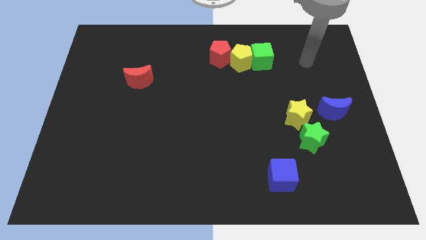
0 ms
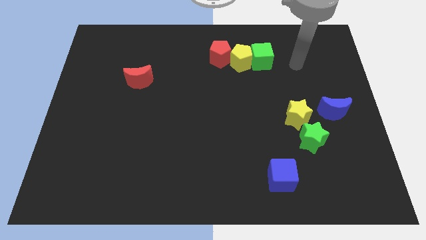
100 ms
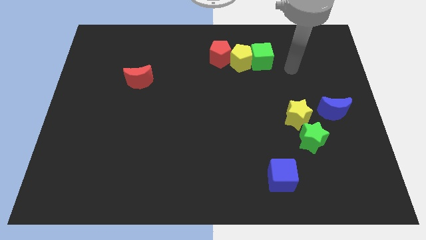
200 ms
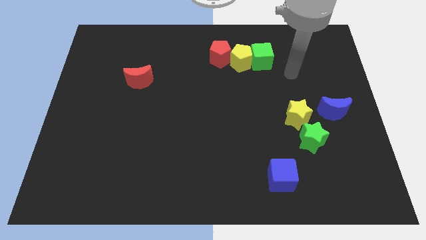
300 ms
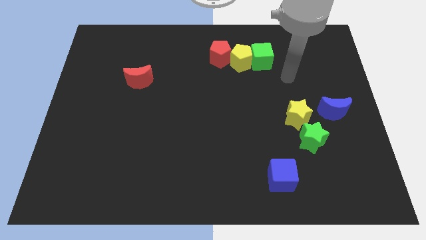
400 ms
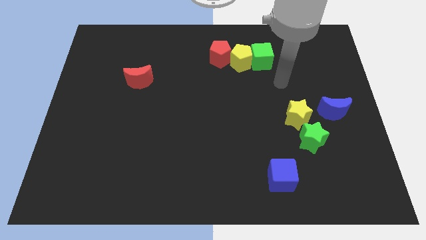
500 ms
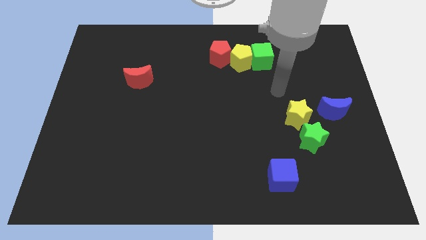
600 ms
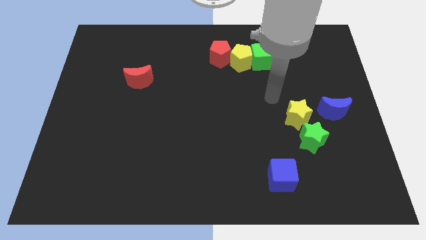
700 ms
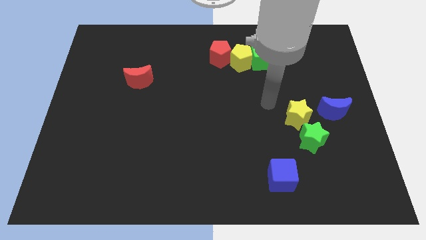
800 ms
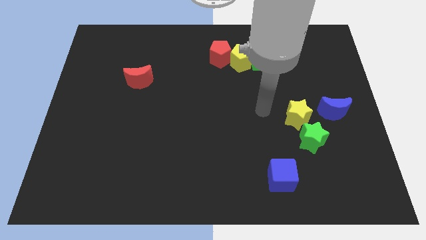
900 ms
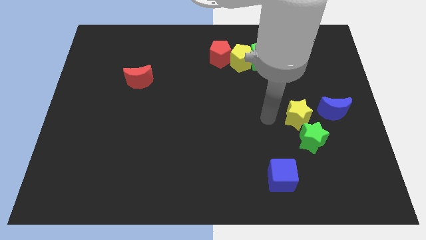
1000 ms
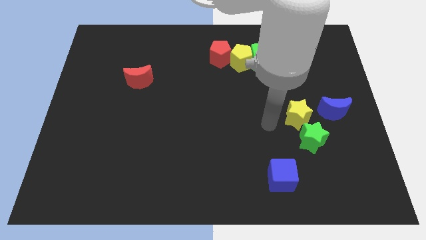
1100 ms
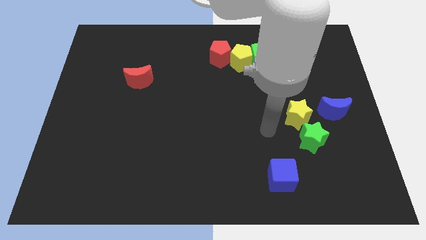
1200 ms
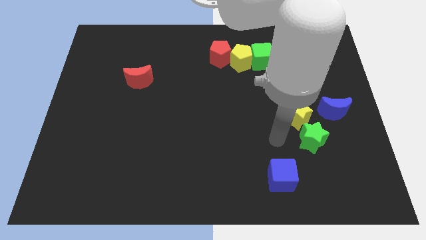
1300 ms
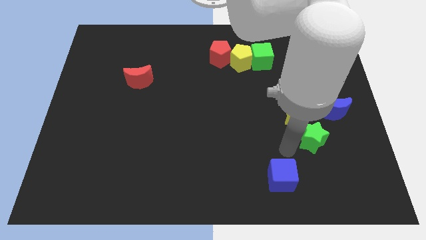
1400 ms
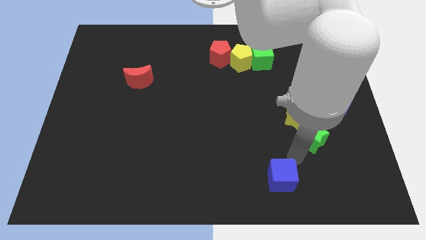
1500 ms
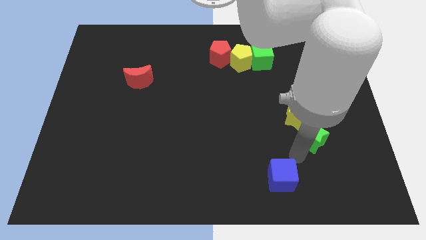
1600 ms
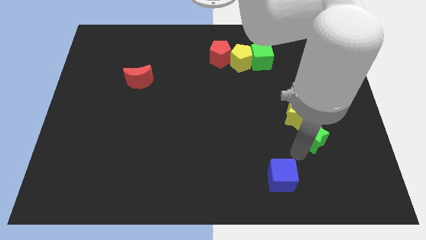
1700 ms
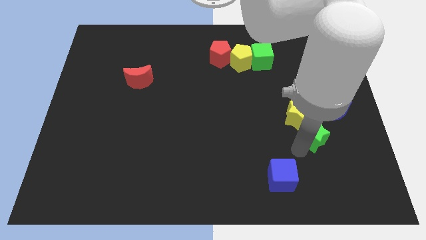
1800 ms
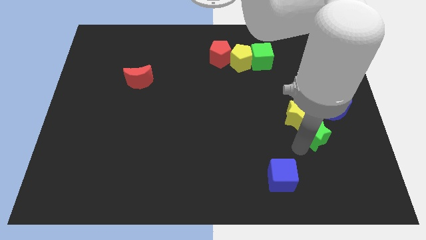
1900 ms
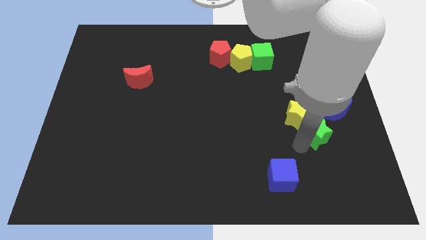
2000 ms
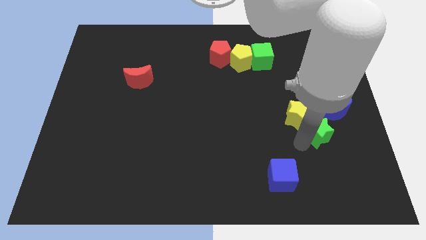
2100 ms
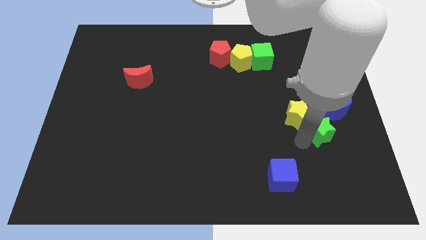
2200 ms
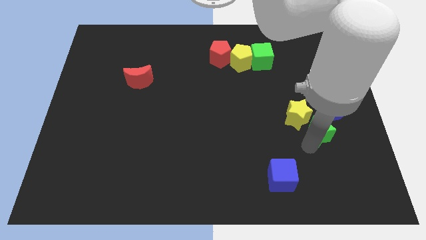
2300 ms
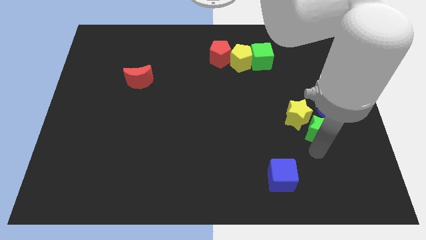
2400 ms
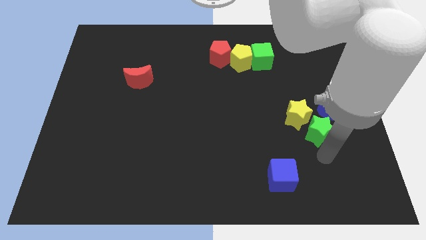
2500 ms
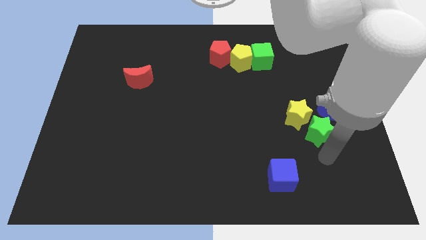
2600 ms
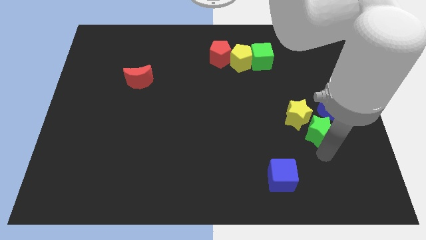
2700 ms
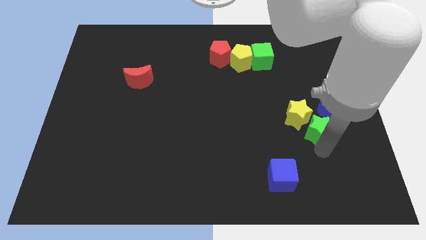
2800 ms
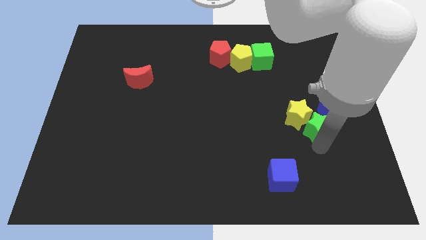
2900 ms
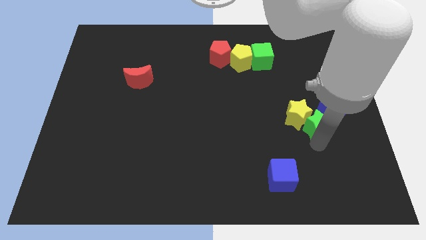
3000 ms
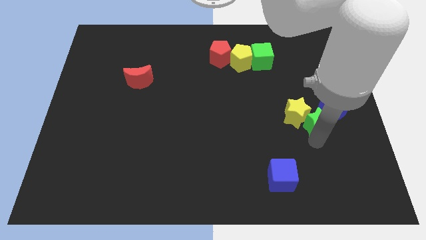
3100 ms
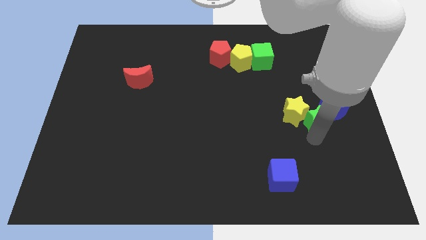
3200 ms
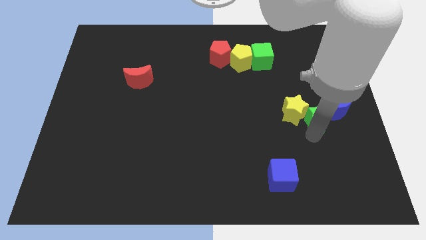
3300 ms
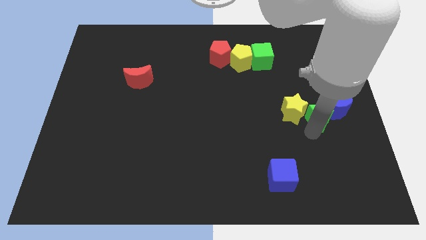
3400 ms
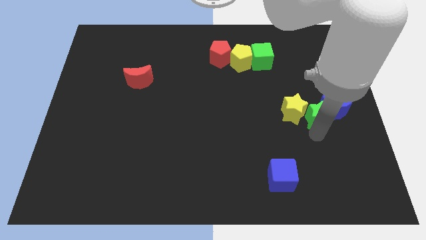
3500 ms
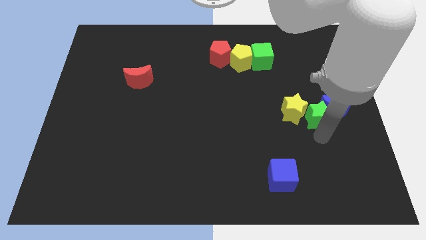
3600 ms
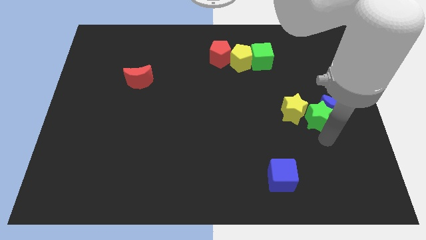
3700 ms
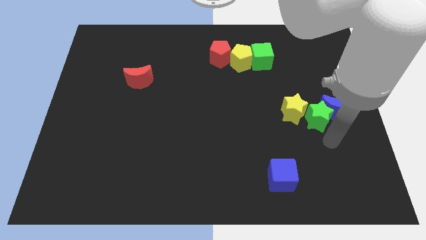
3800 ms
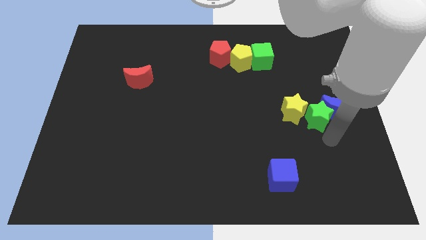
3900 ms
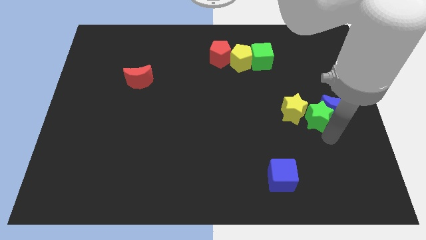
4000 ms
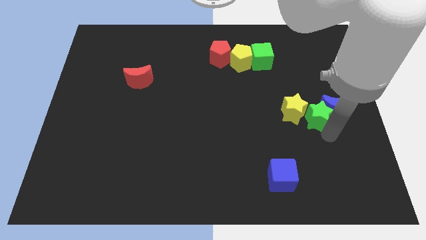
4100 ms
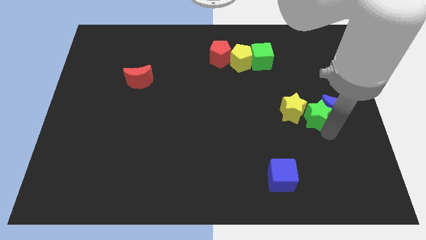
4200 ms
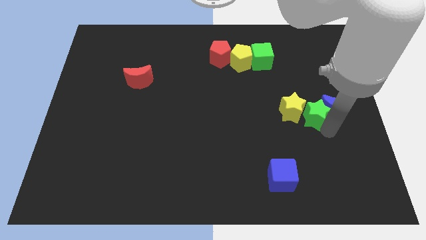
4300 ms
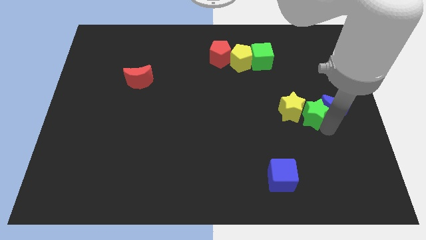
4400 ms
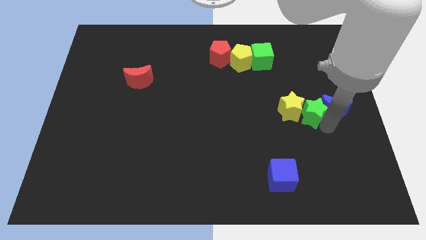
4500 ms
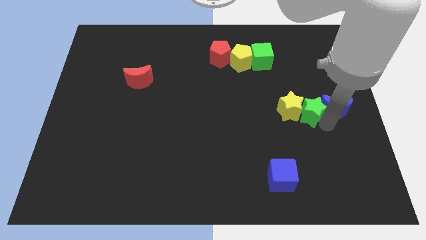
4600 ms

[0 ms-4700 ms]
slide the green star up a little

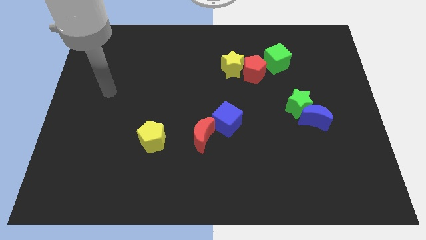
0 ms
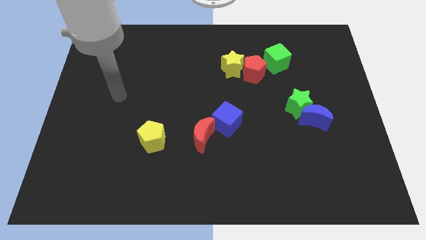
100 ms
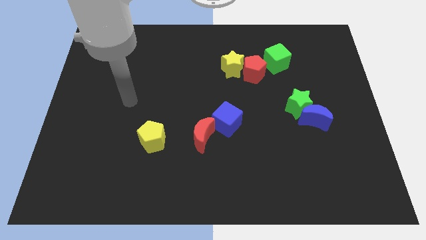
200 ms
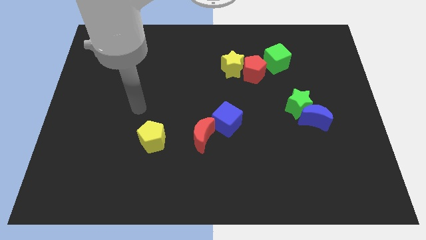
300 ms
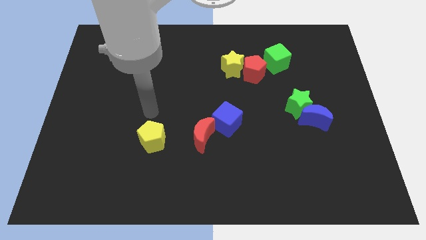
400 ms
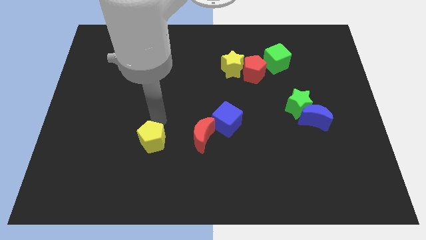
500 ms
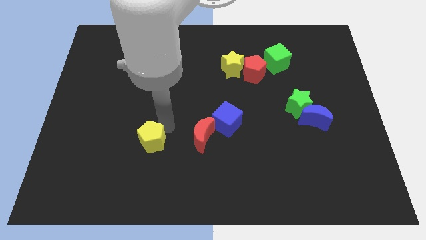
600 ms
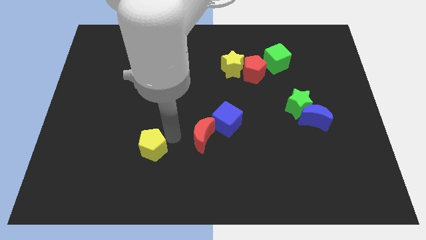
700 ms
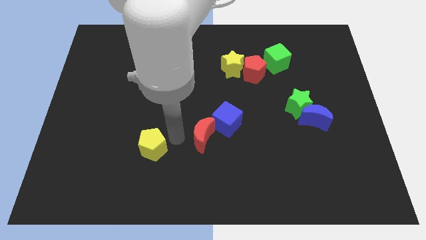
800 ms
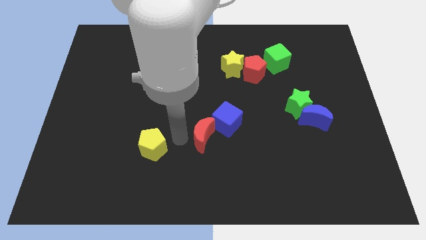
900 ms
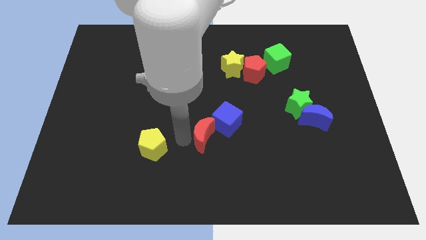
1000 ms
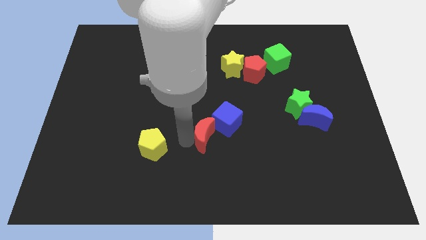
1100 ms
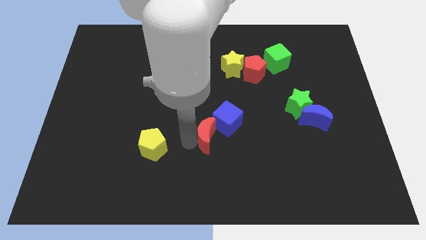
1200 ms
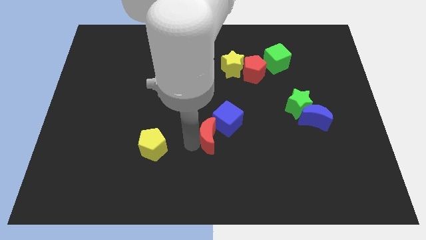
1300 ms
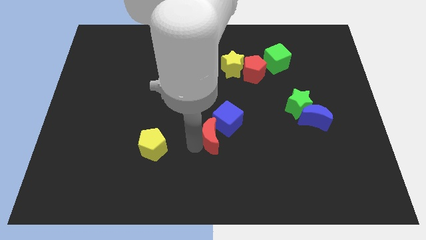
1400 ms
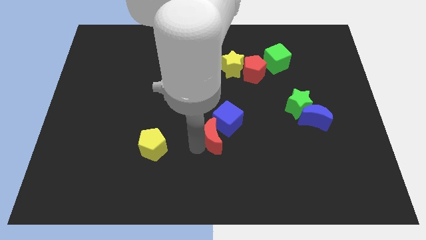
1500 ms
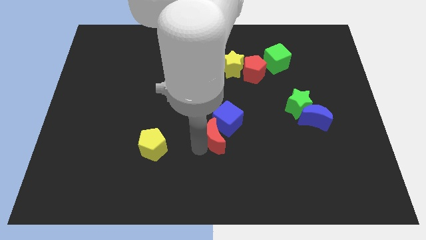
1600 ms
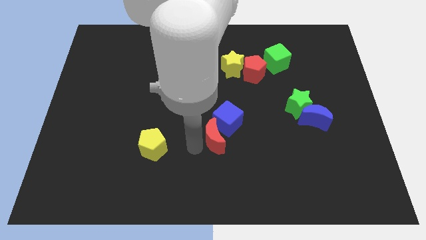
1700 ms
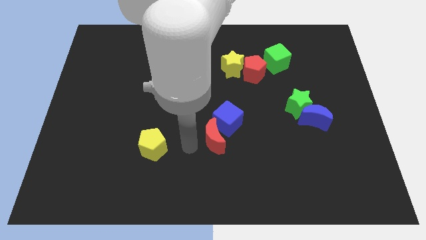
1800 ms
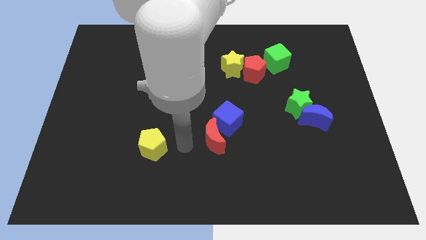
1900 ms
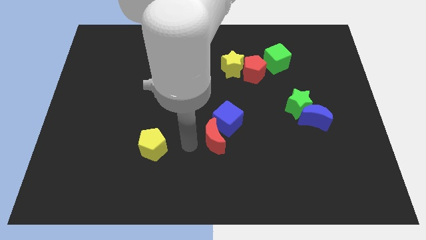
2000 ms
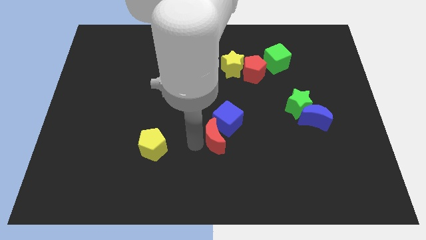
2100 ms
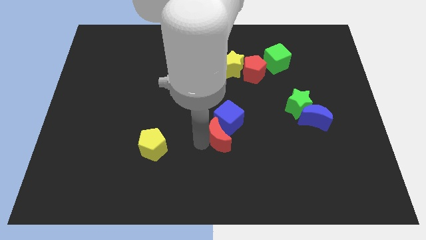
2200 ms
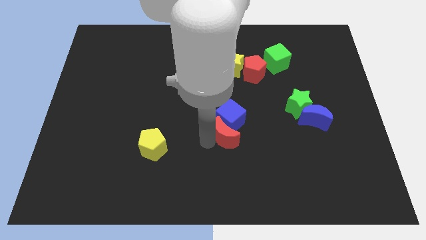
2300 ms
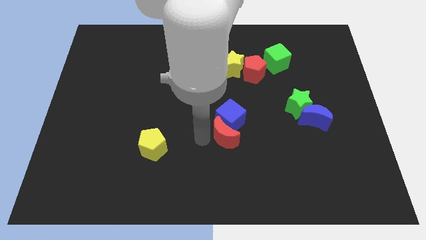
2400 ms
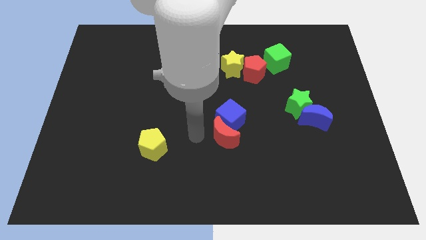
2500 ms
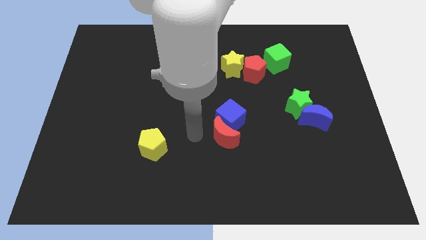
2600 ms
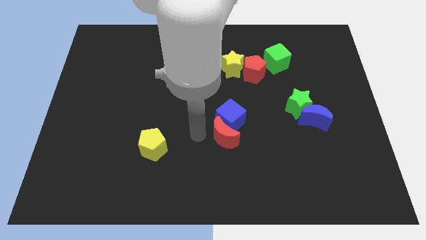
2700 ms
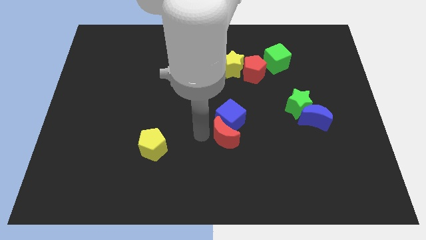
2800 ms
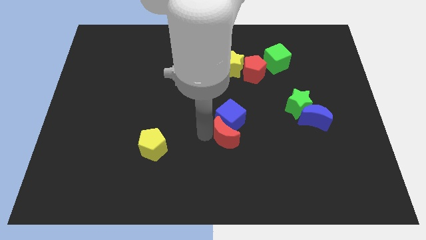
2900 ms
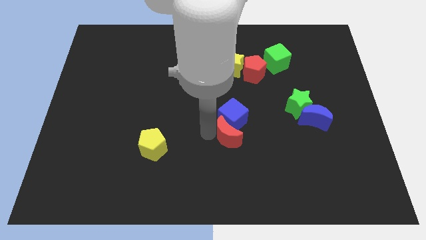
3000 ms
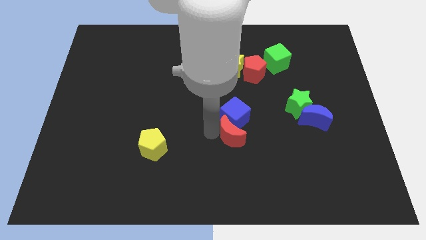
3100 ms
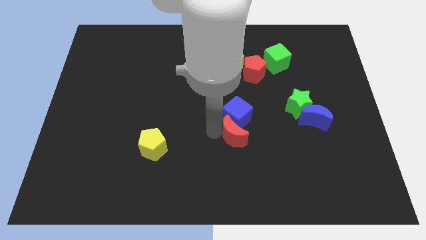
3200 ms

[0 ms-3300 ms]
push the red moon a bit to the right
